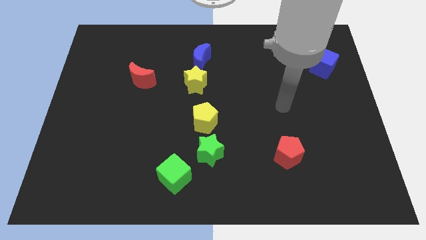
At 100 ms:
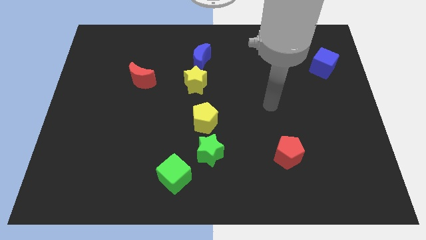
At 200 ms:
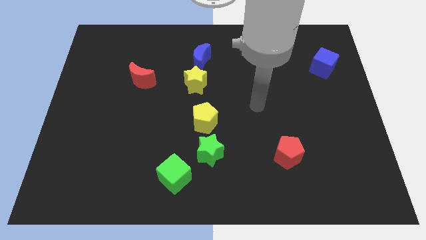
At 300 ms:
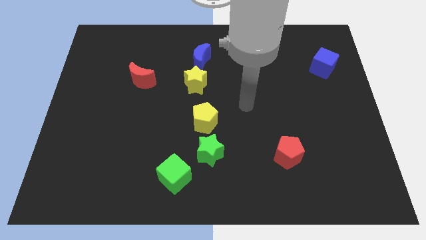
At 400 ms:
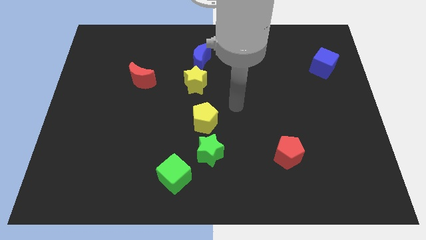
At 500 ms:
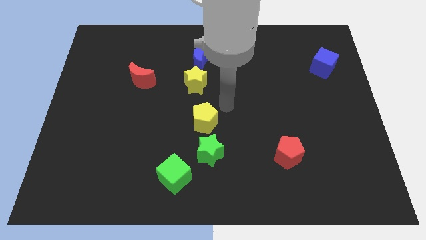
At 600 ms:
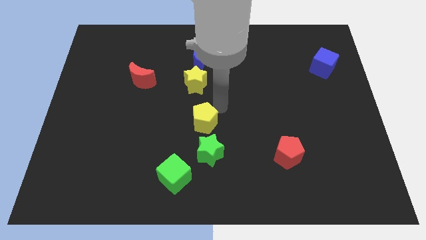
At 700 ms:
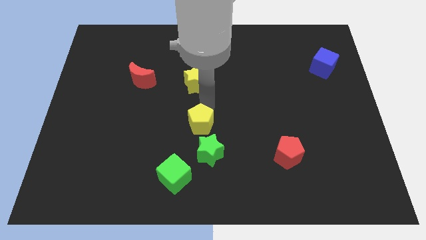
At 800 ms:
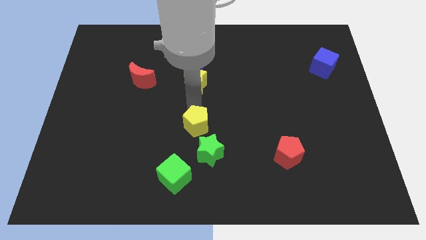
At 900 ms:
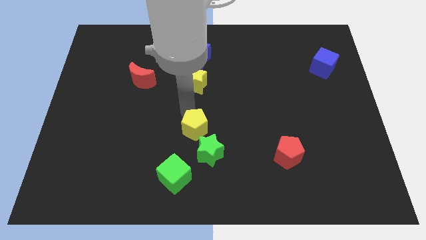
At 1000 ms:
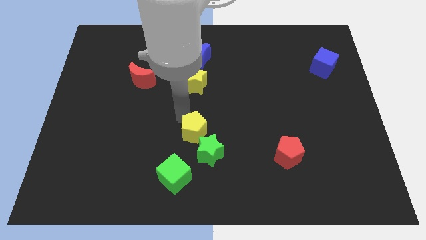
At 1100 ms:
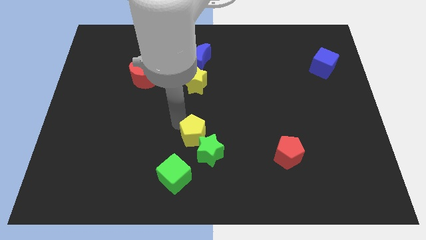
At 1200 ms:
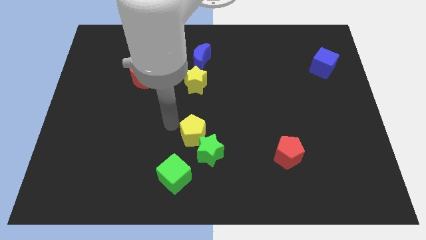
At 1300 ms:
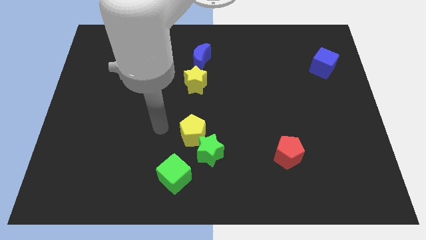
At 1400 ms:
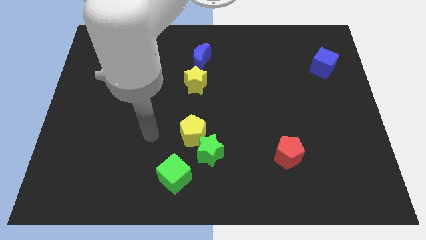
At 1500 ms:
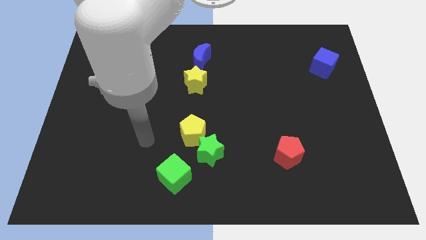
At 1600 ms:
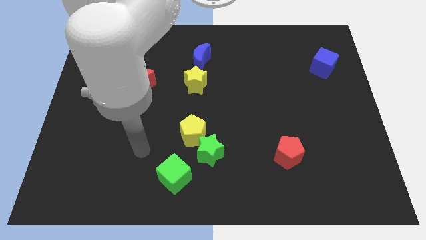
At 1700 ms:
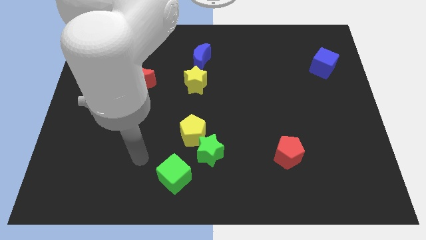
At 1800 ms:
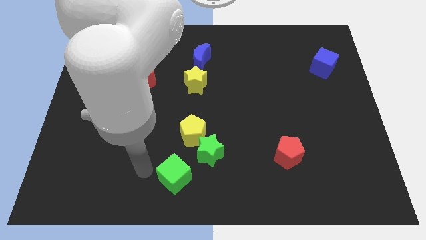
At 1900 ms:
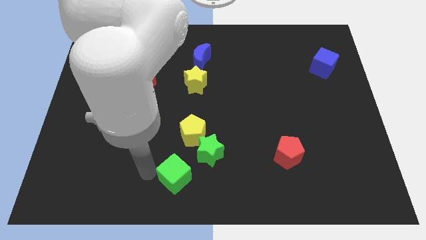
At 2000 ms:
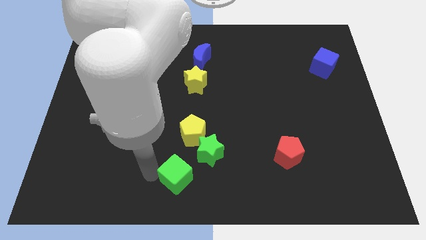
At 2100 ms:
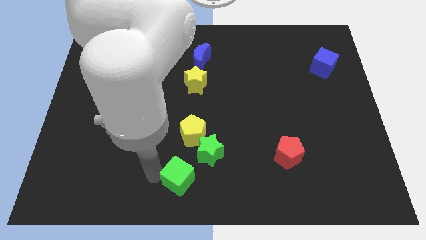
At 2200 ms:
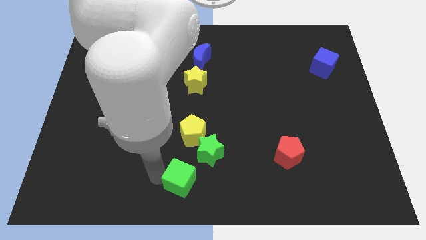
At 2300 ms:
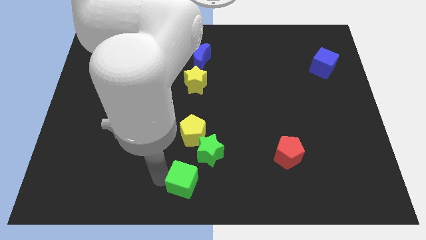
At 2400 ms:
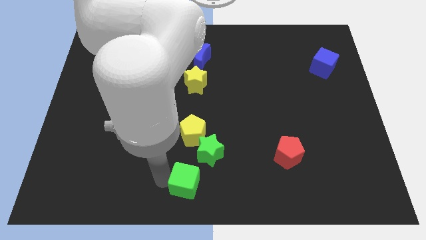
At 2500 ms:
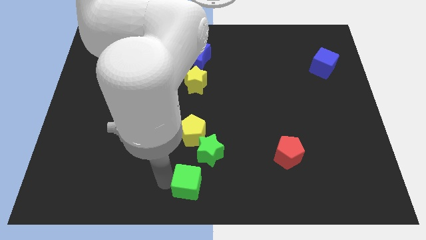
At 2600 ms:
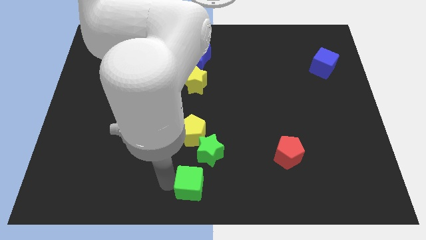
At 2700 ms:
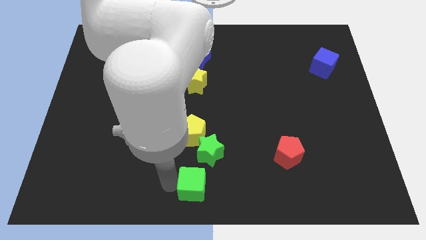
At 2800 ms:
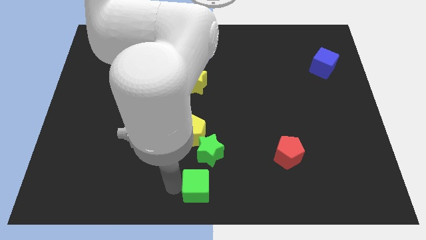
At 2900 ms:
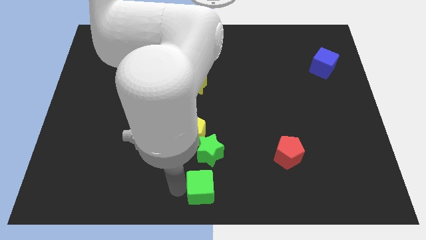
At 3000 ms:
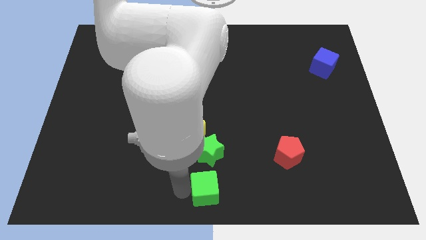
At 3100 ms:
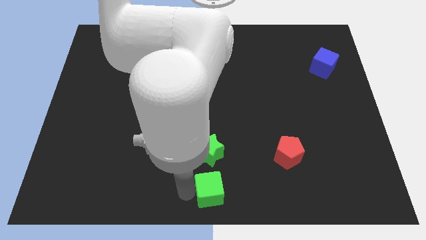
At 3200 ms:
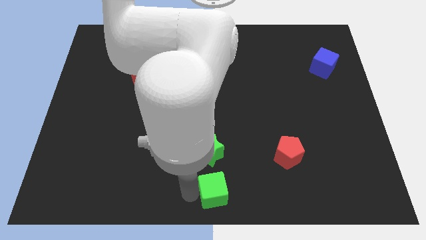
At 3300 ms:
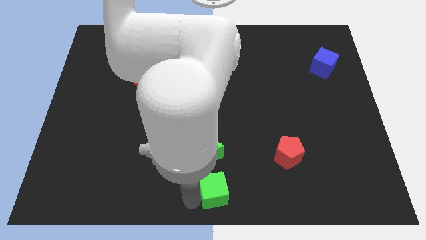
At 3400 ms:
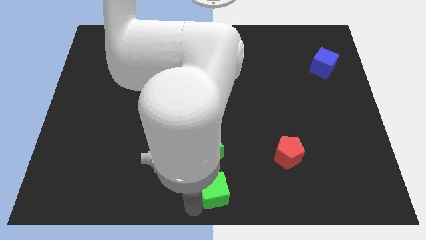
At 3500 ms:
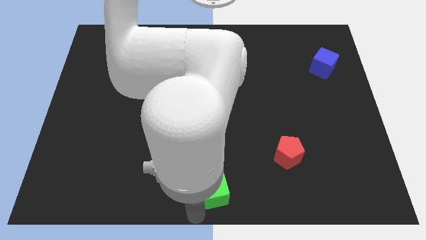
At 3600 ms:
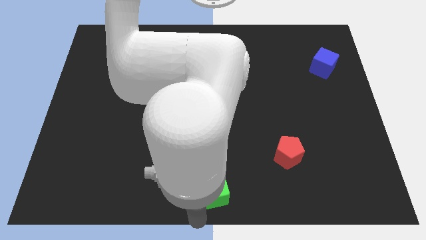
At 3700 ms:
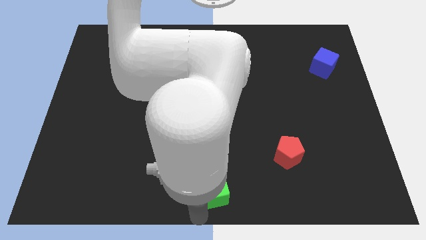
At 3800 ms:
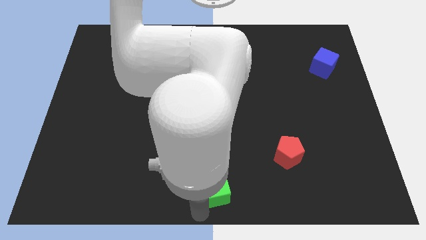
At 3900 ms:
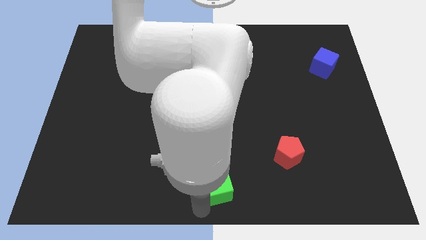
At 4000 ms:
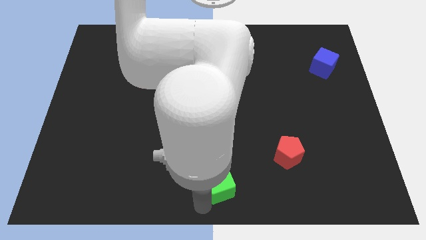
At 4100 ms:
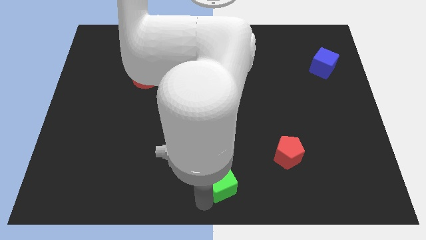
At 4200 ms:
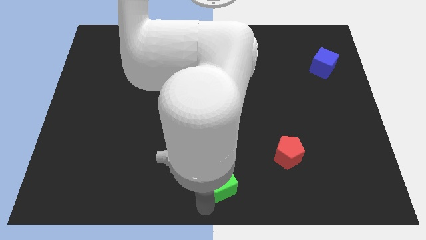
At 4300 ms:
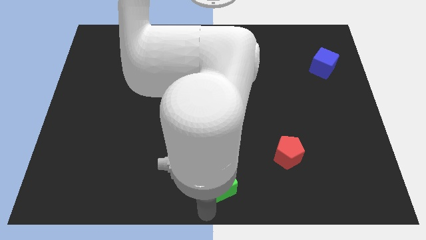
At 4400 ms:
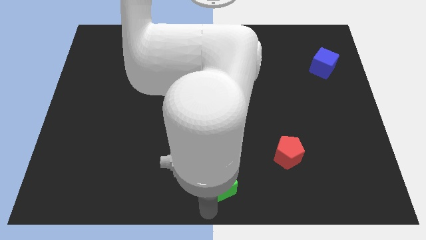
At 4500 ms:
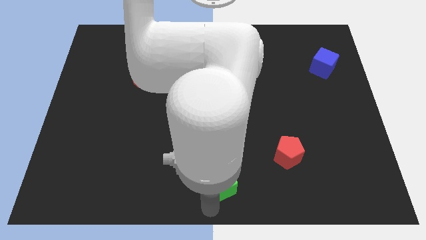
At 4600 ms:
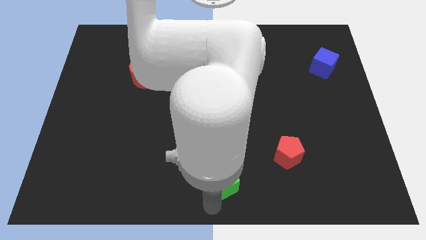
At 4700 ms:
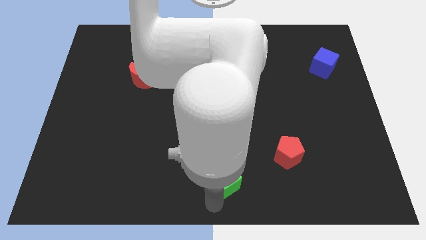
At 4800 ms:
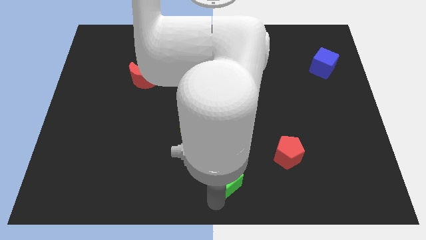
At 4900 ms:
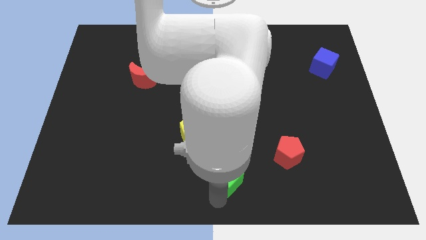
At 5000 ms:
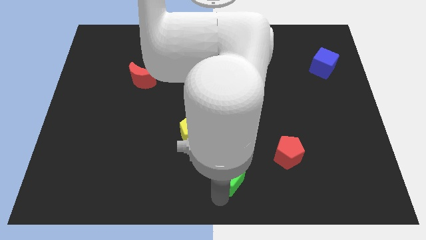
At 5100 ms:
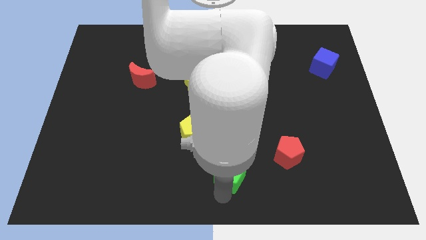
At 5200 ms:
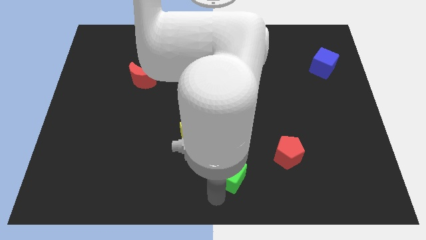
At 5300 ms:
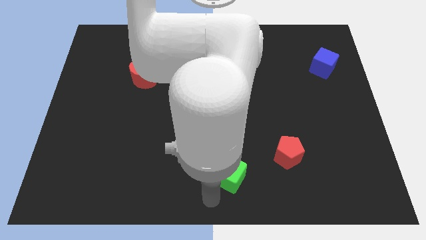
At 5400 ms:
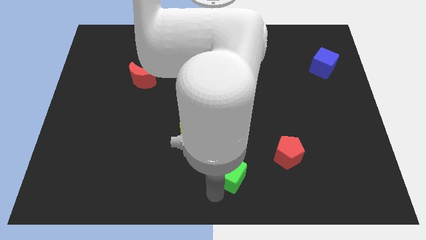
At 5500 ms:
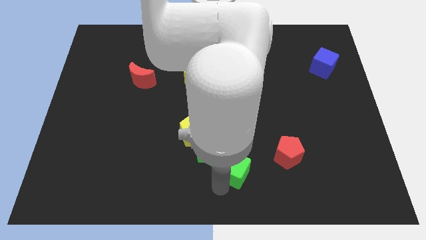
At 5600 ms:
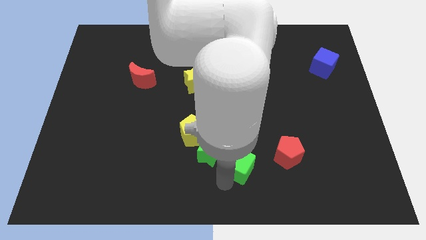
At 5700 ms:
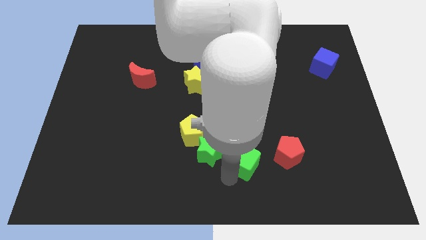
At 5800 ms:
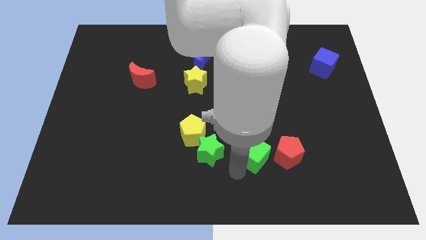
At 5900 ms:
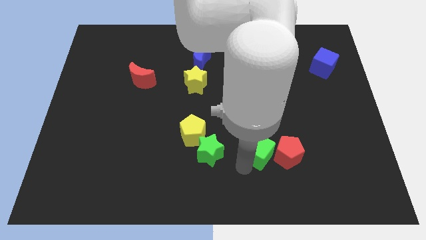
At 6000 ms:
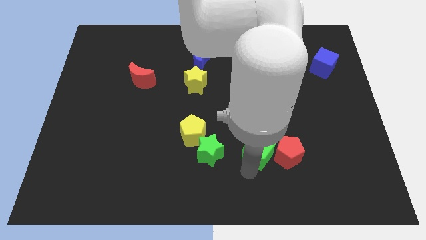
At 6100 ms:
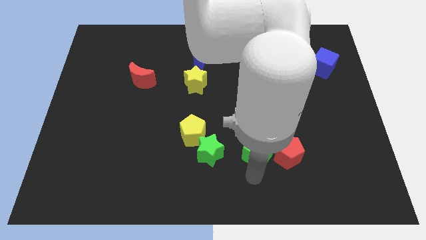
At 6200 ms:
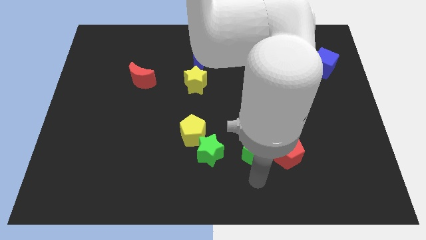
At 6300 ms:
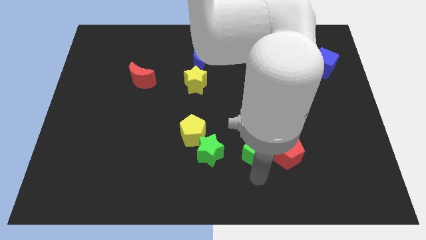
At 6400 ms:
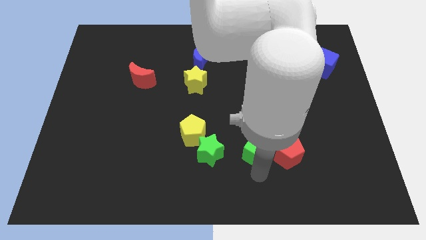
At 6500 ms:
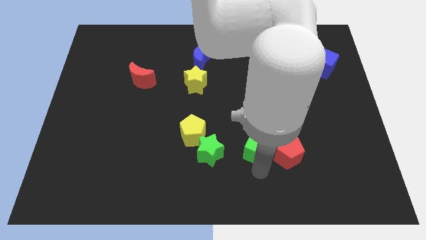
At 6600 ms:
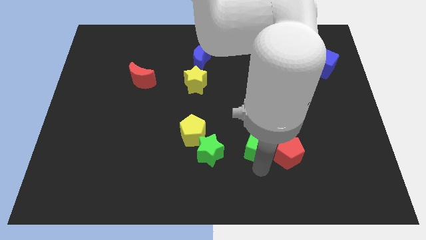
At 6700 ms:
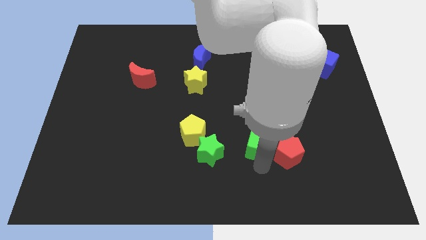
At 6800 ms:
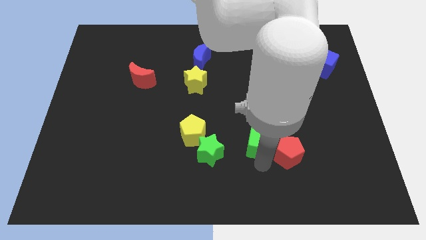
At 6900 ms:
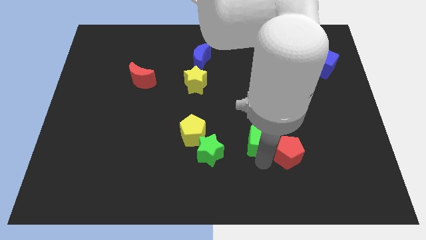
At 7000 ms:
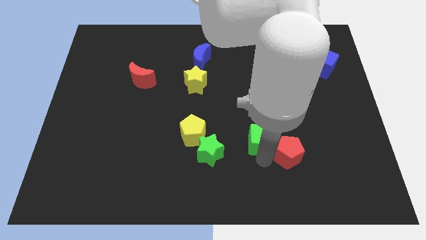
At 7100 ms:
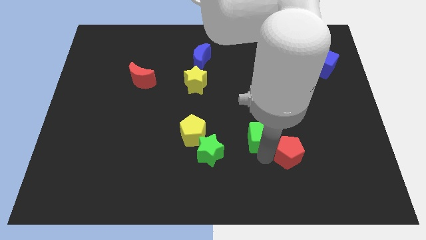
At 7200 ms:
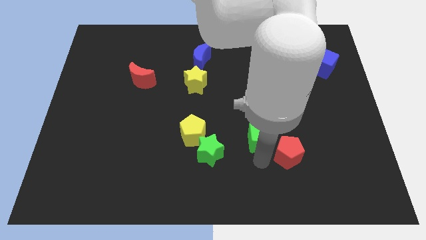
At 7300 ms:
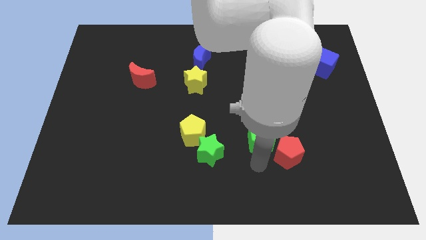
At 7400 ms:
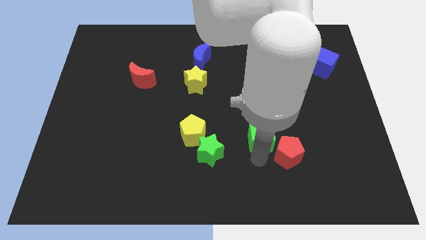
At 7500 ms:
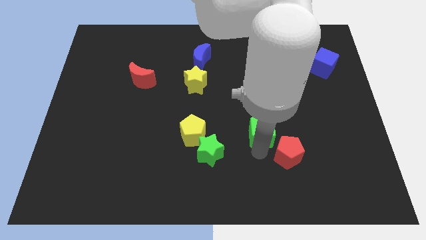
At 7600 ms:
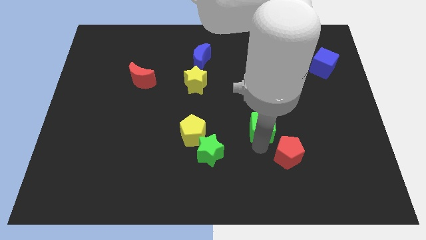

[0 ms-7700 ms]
slide the green cube diagonally upwards and to the right

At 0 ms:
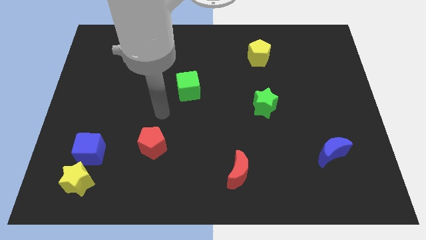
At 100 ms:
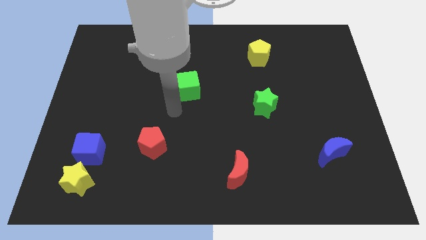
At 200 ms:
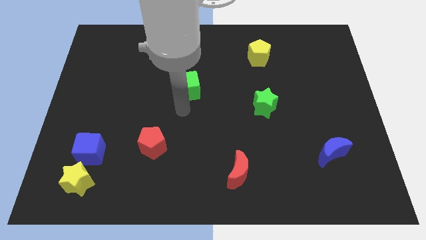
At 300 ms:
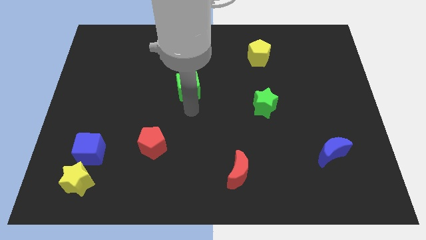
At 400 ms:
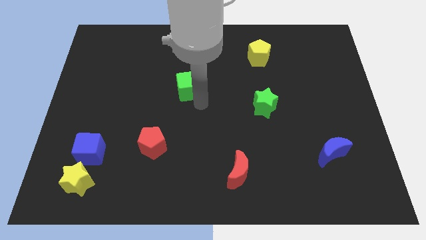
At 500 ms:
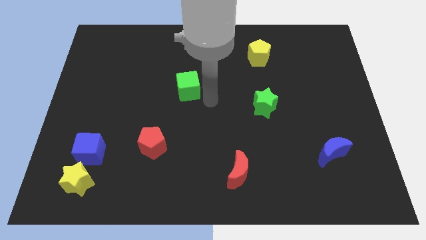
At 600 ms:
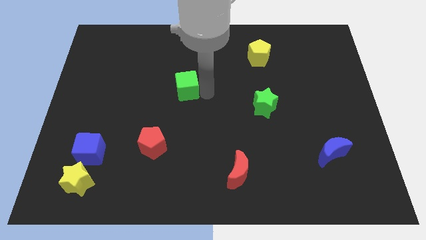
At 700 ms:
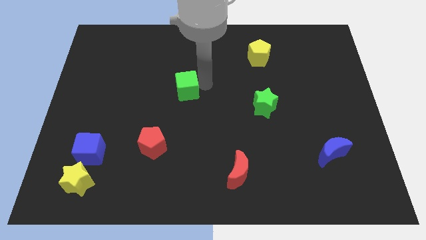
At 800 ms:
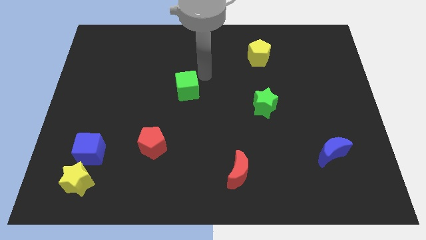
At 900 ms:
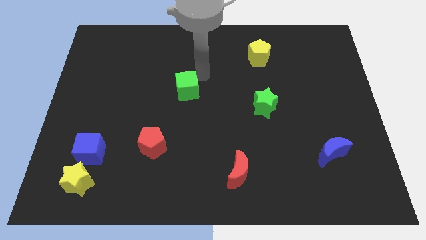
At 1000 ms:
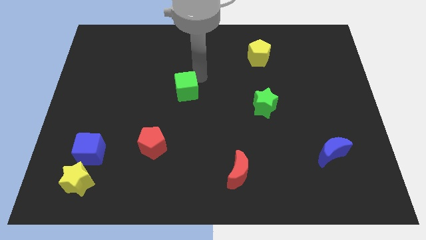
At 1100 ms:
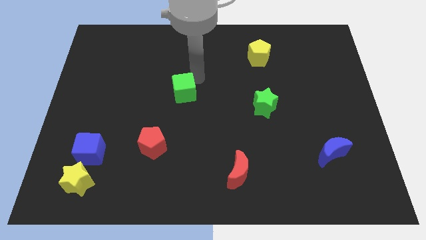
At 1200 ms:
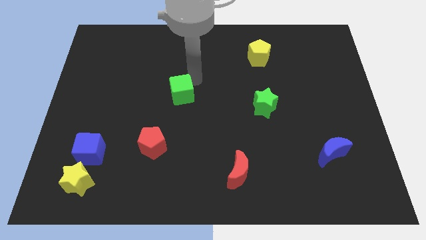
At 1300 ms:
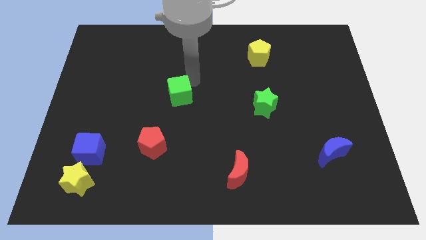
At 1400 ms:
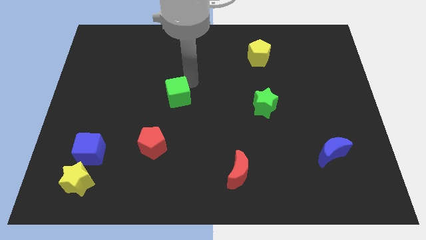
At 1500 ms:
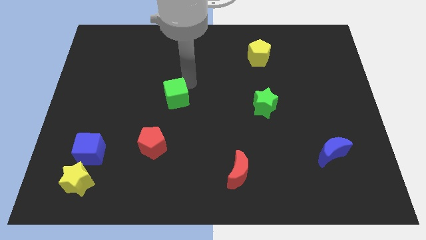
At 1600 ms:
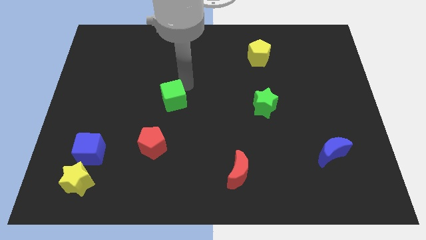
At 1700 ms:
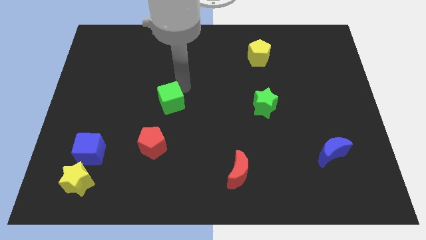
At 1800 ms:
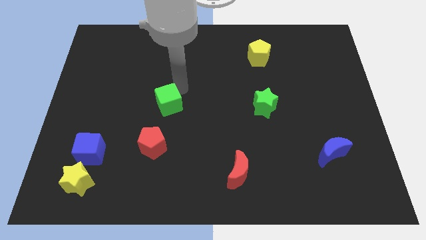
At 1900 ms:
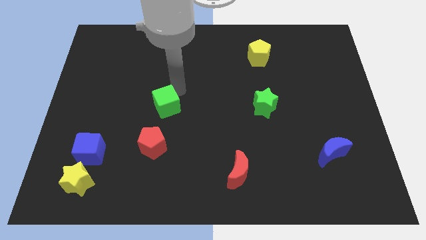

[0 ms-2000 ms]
push the green cube a bit diagonally downwards and left
